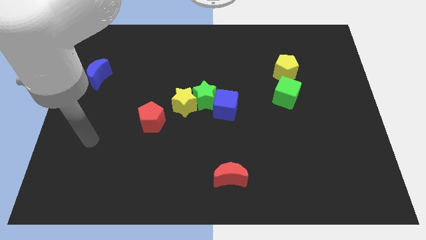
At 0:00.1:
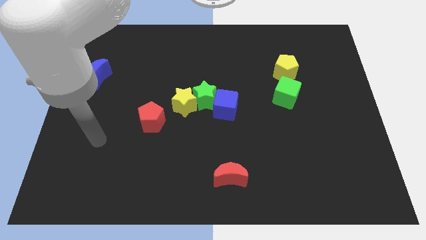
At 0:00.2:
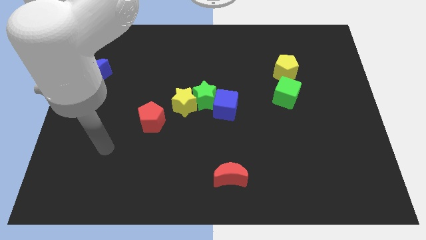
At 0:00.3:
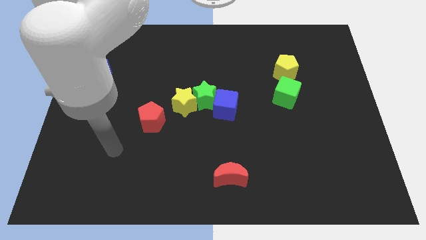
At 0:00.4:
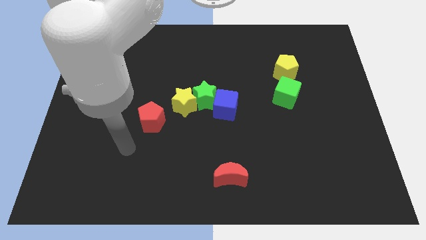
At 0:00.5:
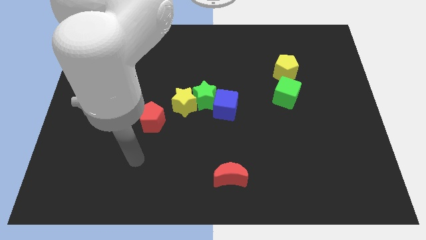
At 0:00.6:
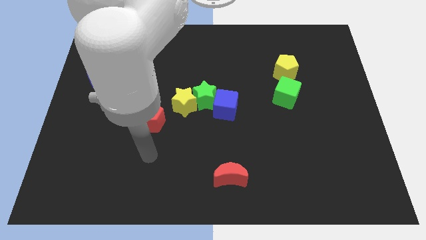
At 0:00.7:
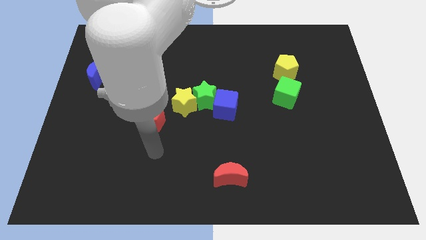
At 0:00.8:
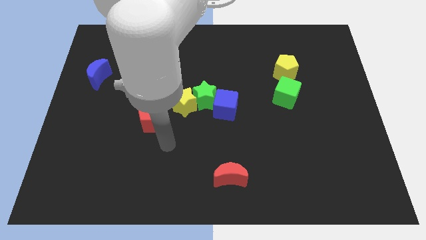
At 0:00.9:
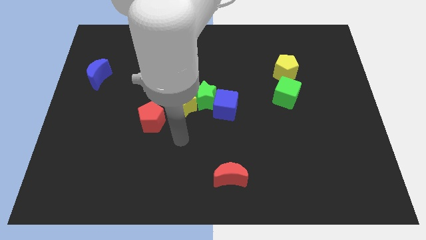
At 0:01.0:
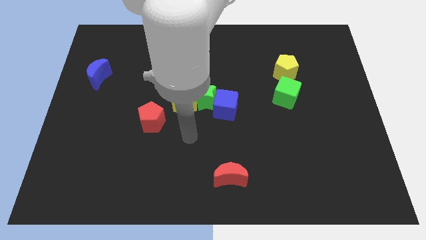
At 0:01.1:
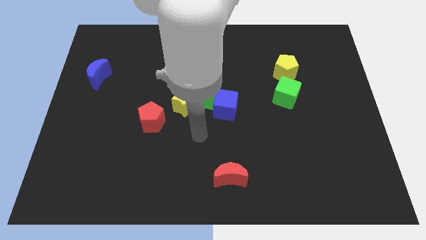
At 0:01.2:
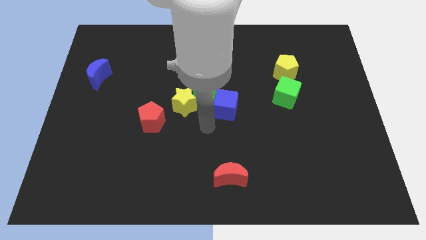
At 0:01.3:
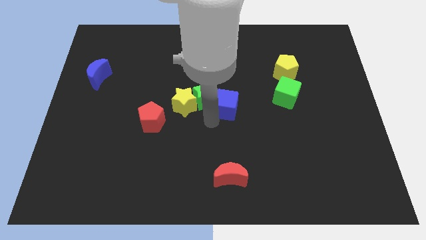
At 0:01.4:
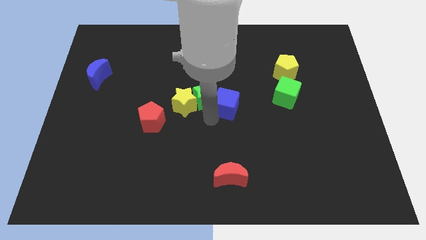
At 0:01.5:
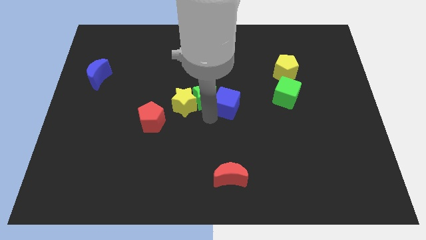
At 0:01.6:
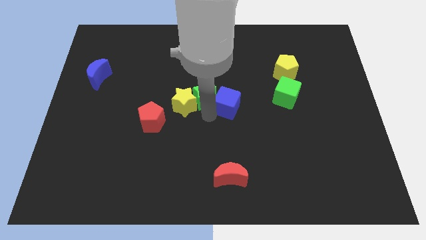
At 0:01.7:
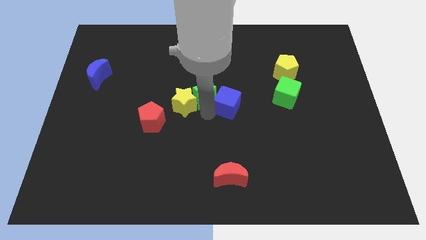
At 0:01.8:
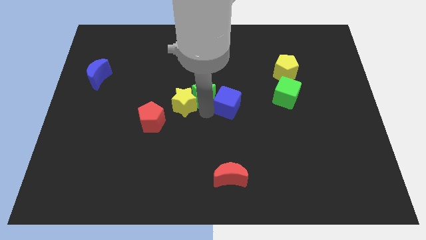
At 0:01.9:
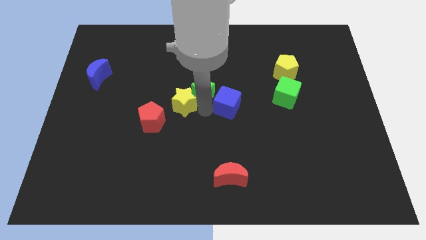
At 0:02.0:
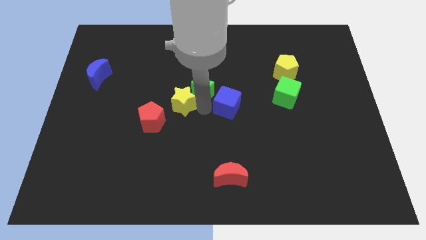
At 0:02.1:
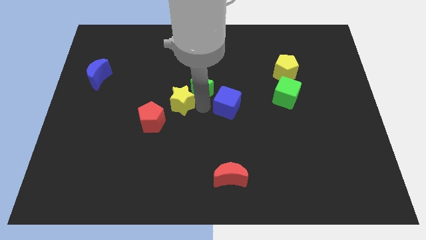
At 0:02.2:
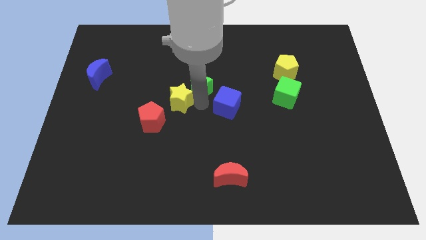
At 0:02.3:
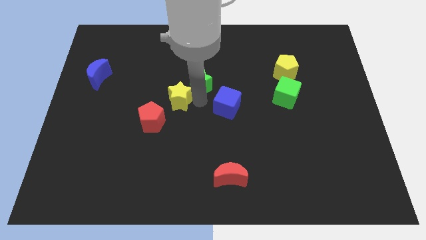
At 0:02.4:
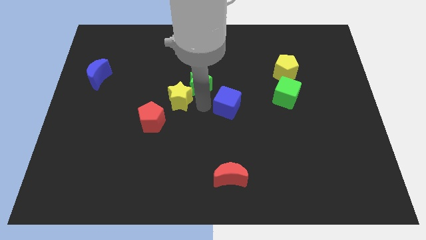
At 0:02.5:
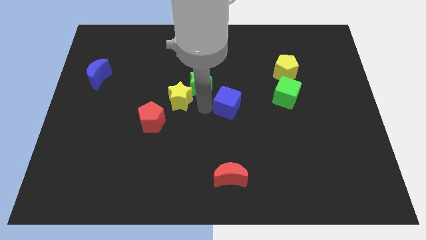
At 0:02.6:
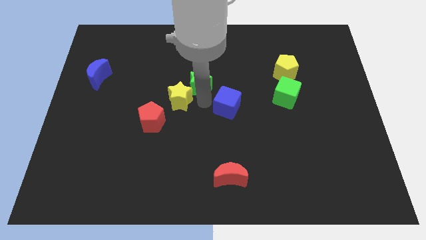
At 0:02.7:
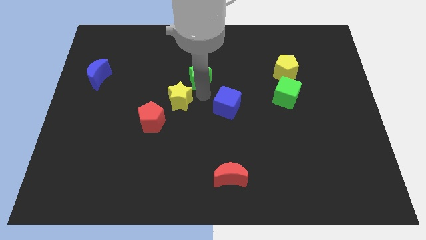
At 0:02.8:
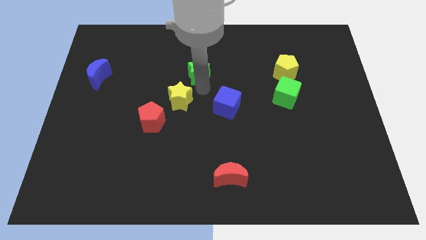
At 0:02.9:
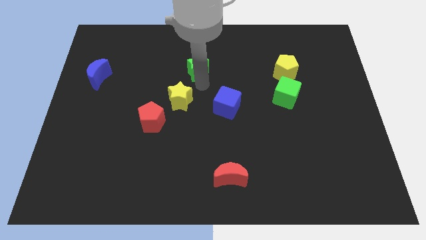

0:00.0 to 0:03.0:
separate the green star from the yellow star and blue cube

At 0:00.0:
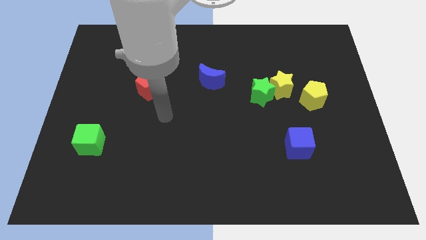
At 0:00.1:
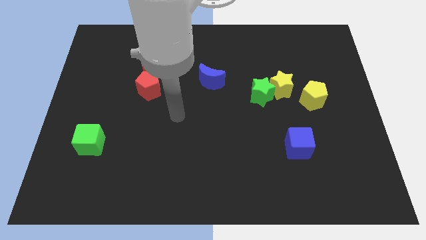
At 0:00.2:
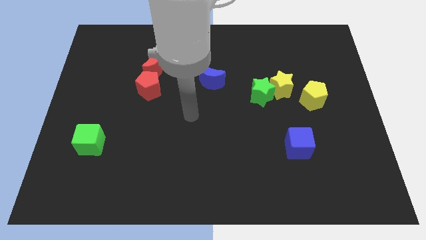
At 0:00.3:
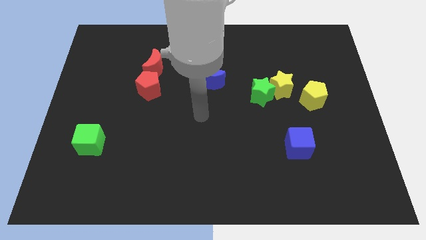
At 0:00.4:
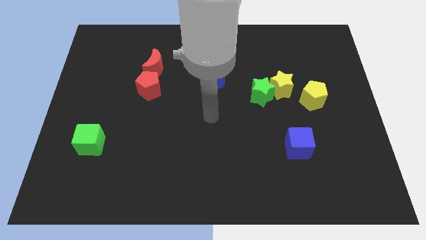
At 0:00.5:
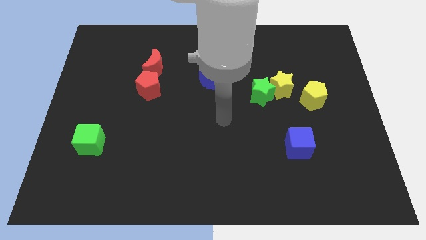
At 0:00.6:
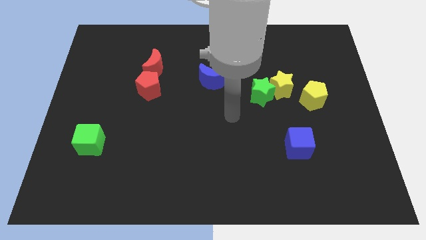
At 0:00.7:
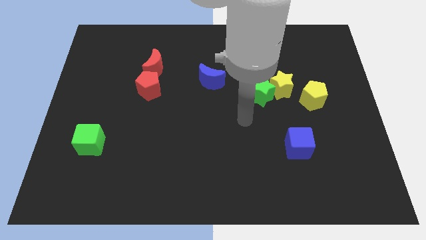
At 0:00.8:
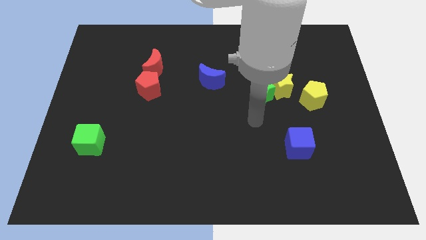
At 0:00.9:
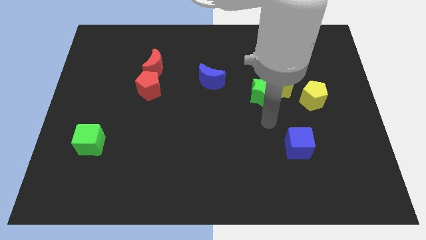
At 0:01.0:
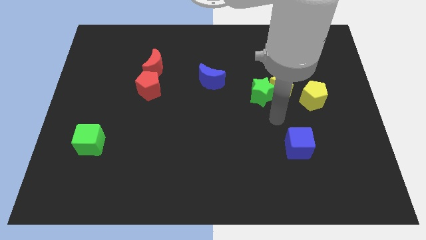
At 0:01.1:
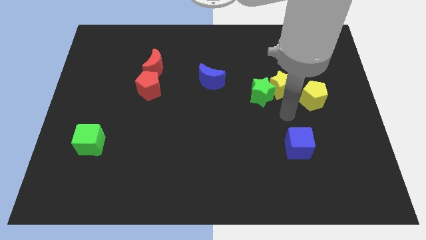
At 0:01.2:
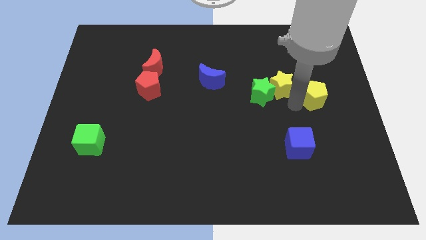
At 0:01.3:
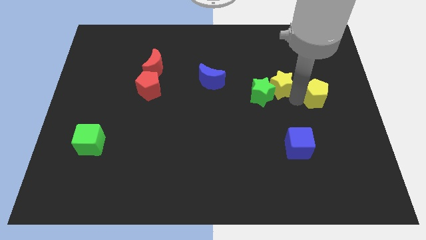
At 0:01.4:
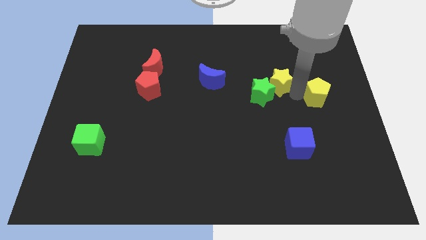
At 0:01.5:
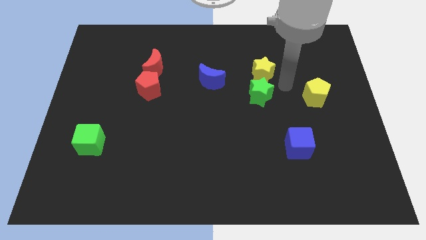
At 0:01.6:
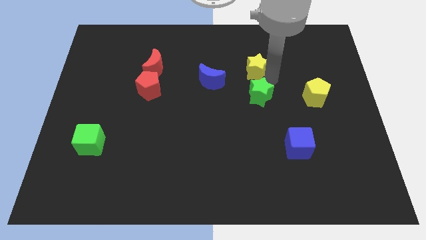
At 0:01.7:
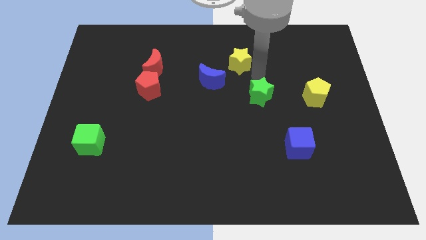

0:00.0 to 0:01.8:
pull the green star apart from the yellow star

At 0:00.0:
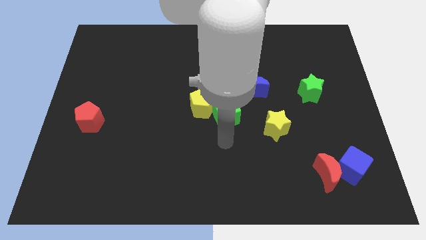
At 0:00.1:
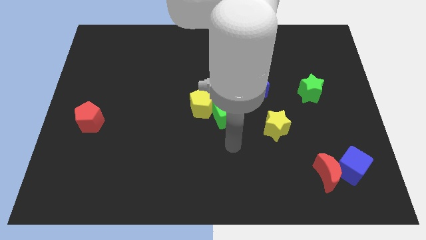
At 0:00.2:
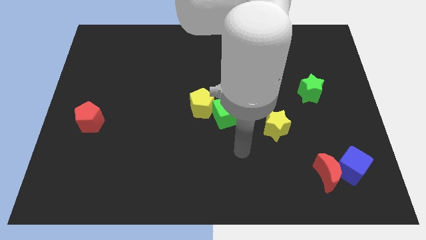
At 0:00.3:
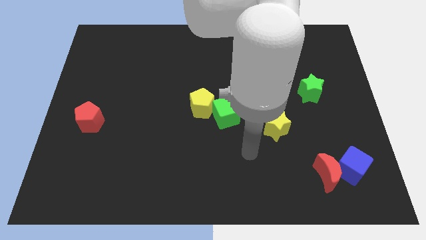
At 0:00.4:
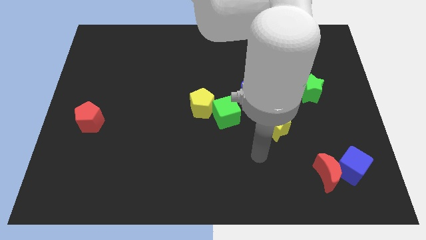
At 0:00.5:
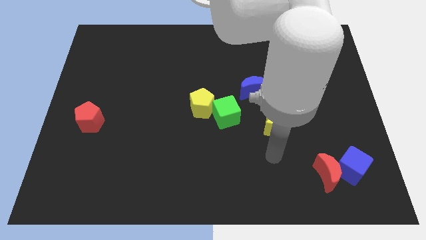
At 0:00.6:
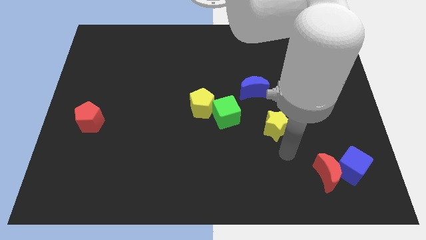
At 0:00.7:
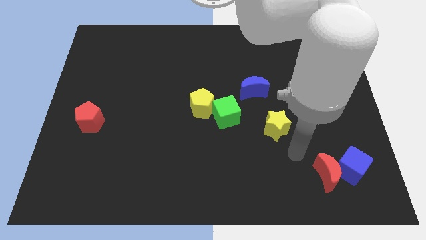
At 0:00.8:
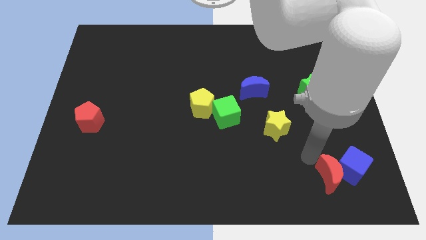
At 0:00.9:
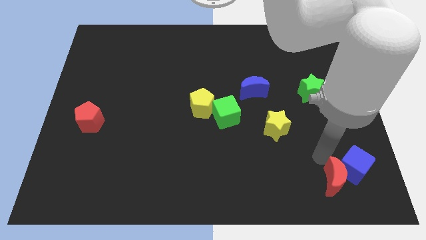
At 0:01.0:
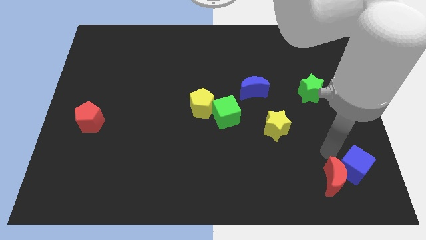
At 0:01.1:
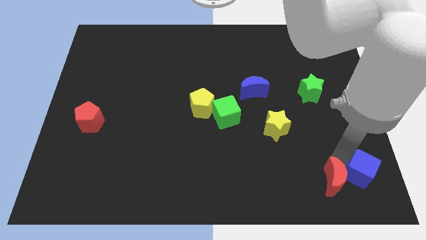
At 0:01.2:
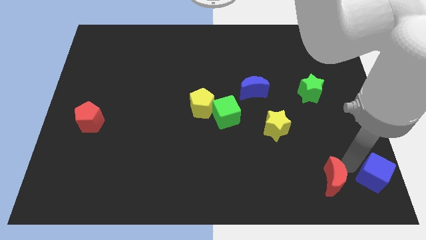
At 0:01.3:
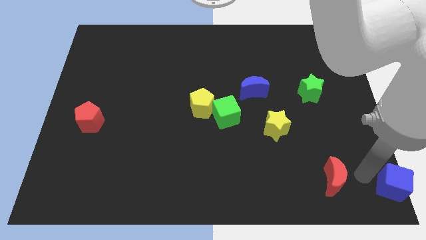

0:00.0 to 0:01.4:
separate the red moon from the blue cube

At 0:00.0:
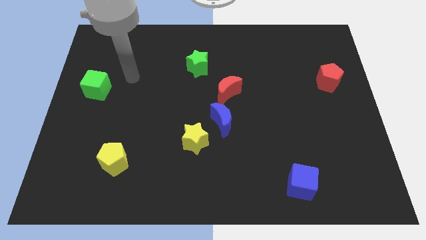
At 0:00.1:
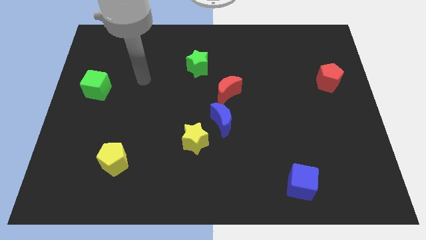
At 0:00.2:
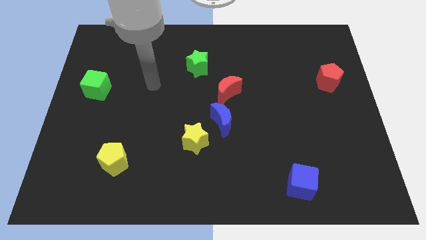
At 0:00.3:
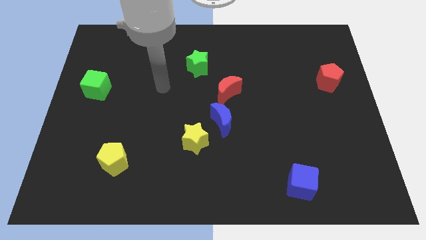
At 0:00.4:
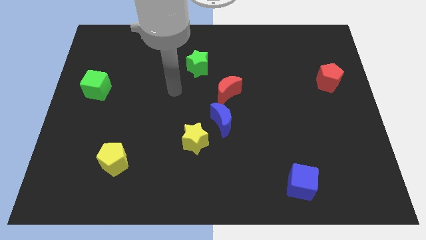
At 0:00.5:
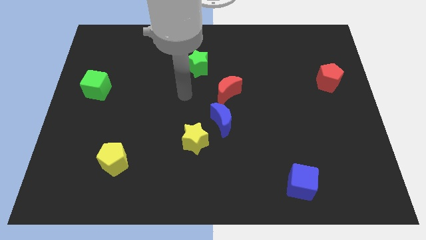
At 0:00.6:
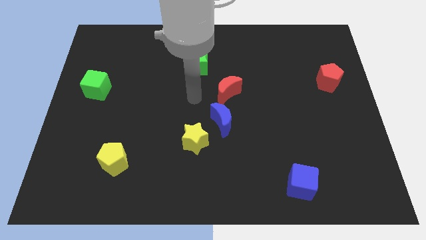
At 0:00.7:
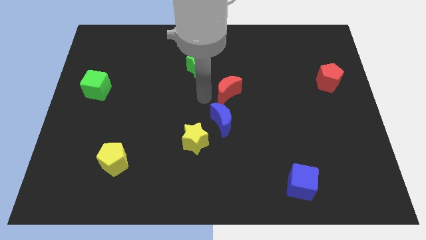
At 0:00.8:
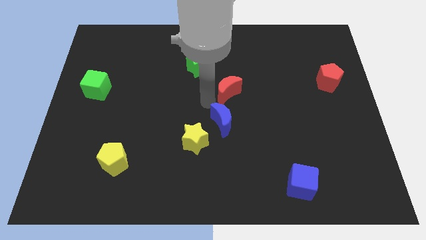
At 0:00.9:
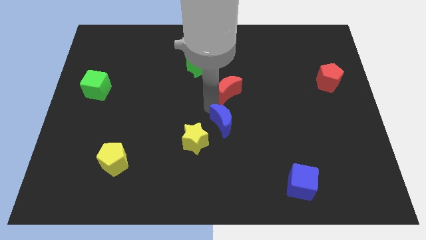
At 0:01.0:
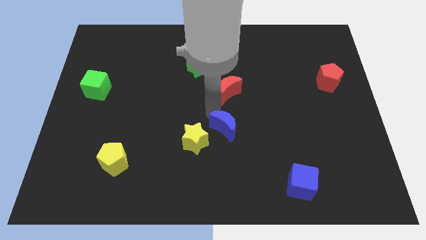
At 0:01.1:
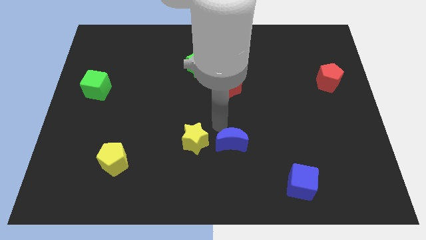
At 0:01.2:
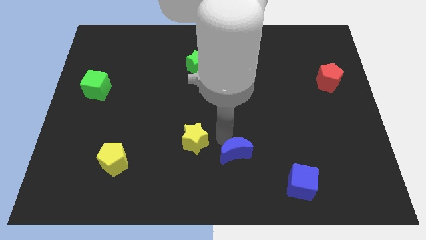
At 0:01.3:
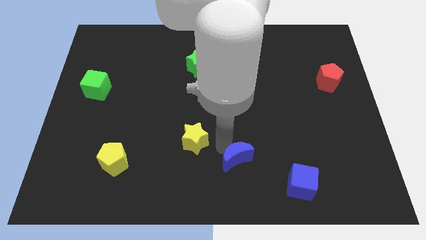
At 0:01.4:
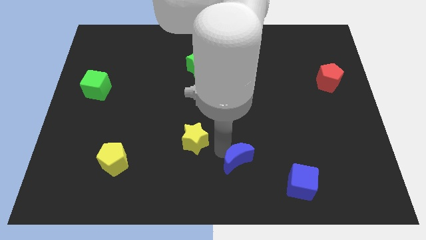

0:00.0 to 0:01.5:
separate the yellow star from the blue moon

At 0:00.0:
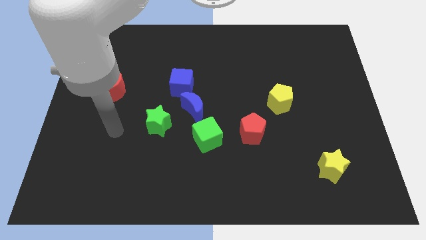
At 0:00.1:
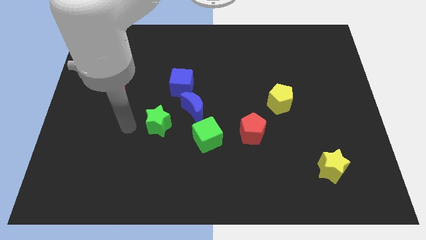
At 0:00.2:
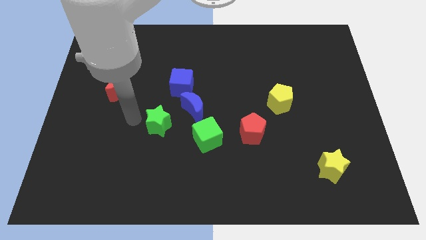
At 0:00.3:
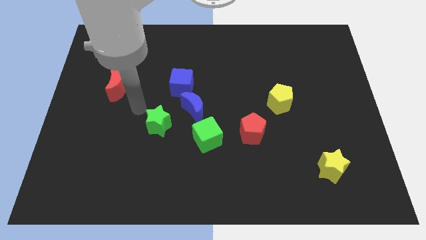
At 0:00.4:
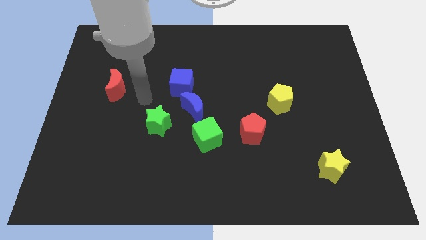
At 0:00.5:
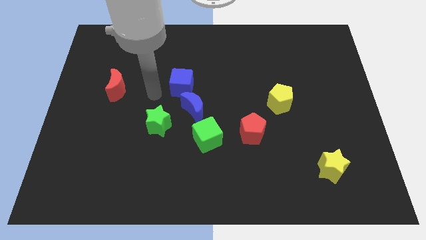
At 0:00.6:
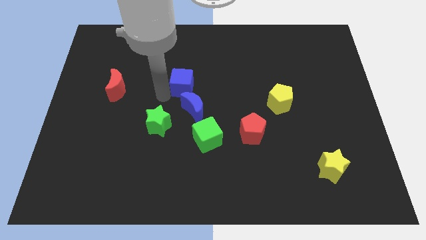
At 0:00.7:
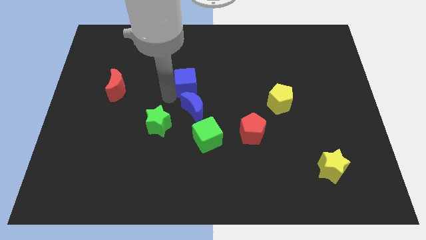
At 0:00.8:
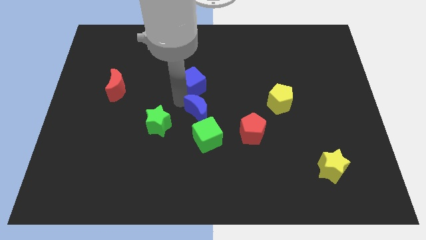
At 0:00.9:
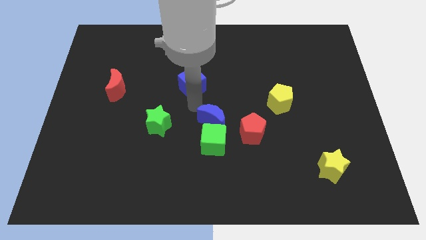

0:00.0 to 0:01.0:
separate the blue cube from the blue moon

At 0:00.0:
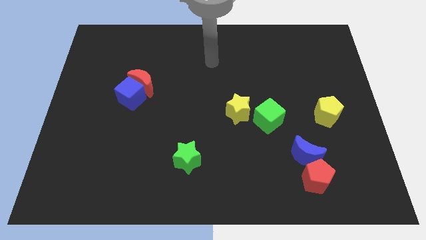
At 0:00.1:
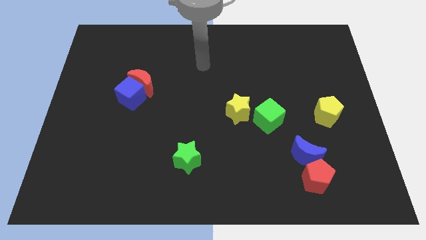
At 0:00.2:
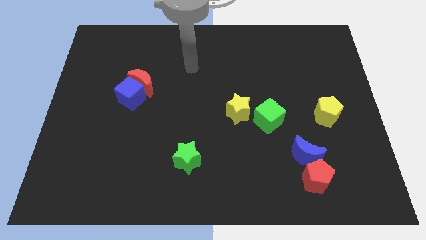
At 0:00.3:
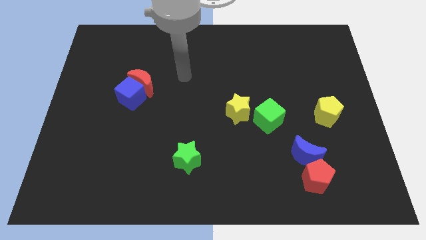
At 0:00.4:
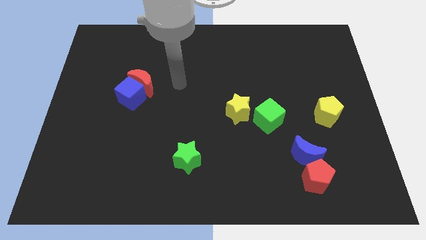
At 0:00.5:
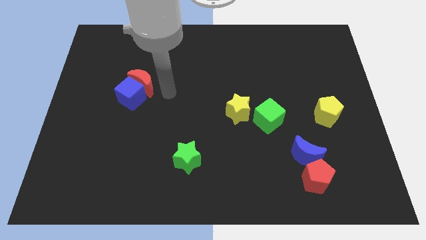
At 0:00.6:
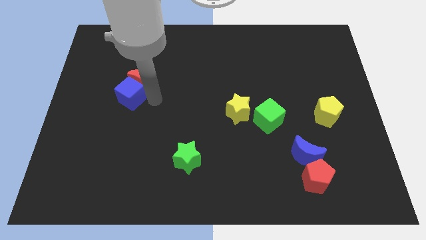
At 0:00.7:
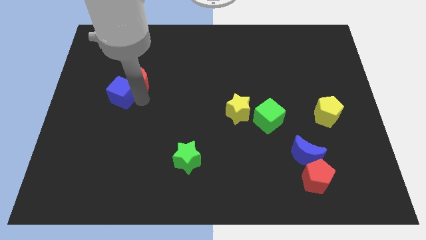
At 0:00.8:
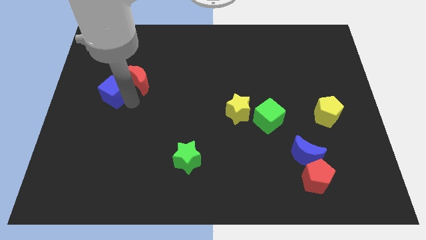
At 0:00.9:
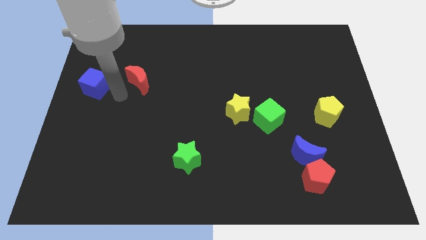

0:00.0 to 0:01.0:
move the red moon away from the blue cube
